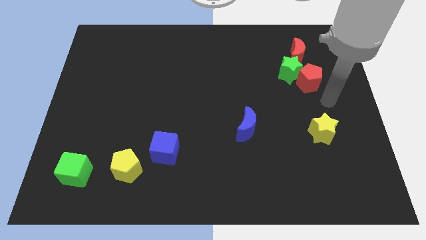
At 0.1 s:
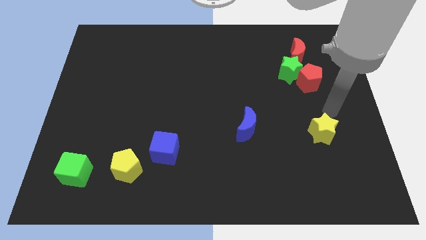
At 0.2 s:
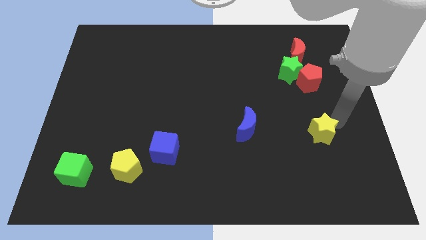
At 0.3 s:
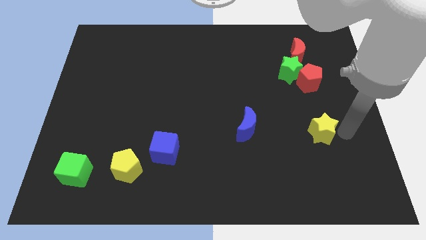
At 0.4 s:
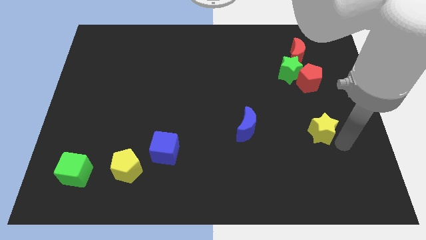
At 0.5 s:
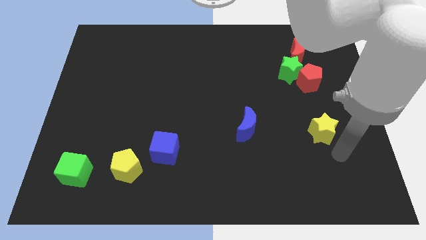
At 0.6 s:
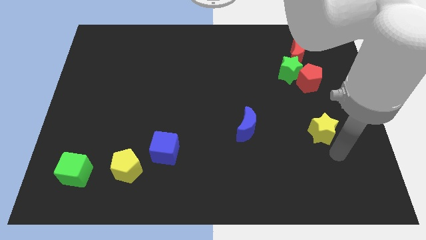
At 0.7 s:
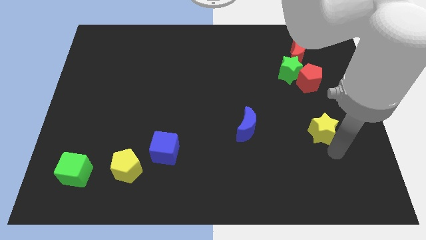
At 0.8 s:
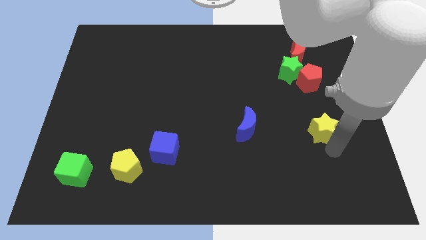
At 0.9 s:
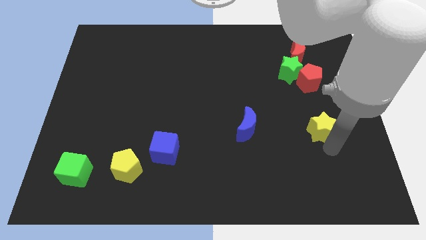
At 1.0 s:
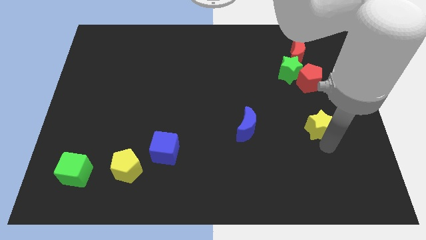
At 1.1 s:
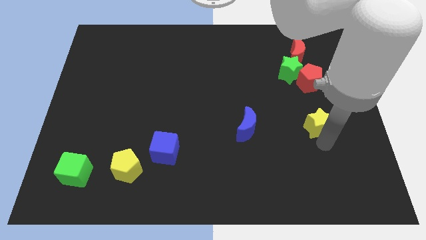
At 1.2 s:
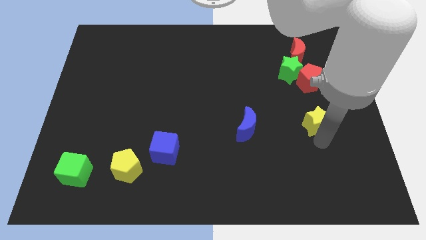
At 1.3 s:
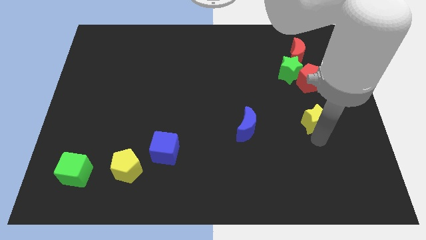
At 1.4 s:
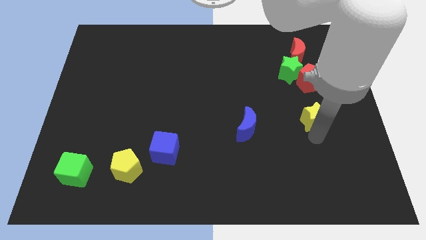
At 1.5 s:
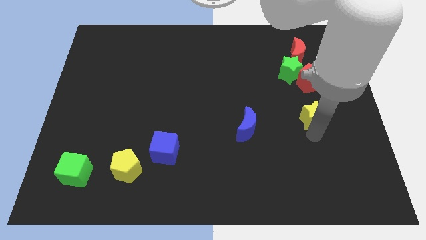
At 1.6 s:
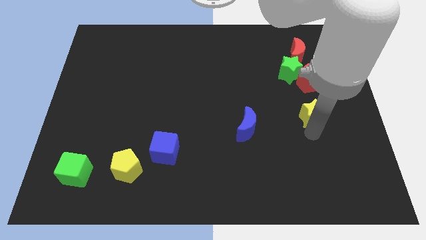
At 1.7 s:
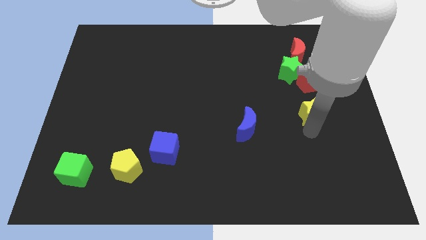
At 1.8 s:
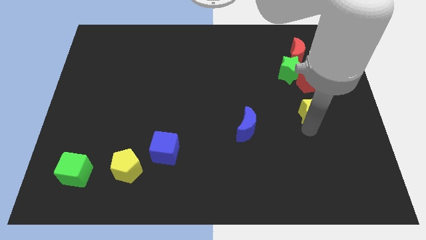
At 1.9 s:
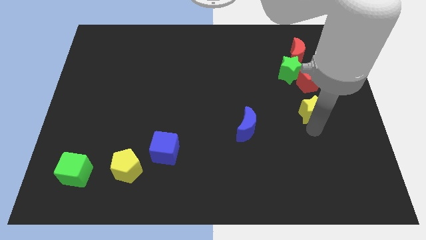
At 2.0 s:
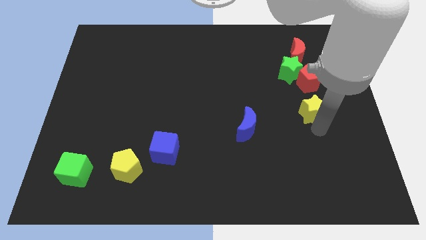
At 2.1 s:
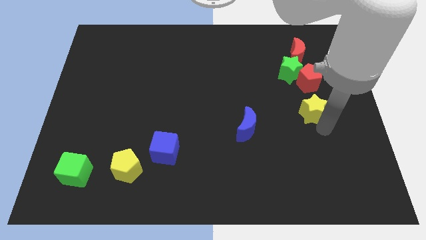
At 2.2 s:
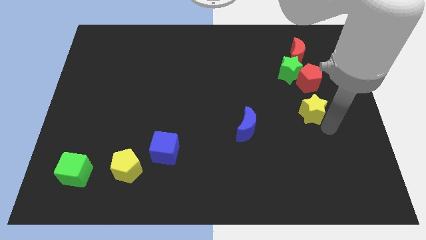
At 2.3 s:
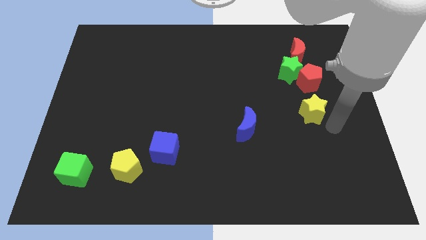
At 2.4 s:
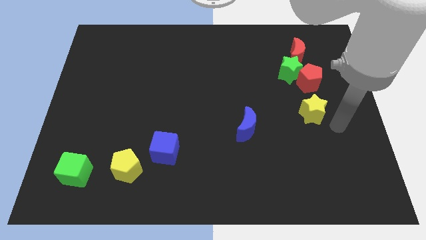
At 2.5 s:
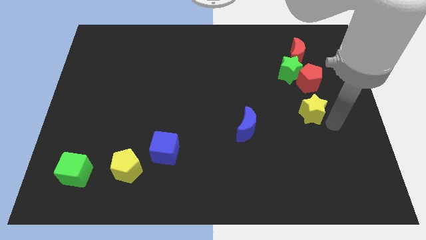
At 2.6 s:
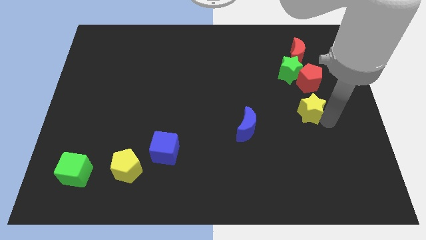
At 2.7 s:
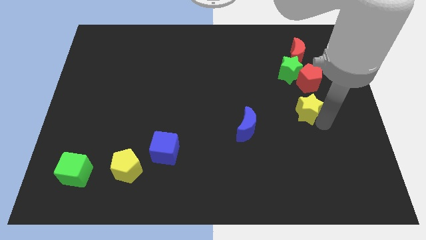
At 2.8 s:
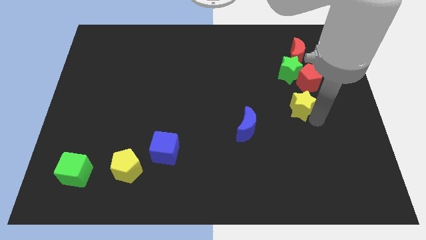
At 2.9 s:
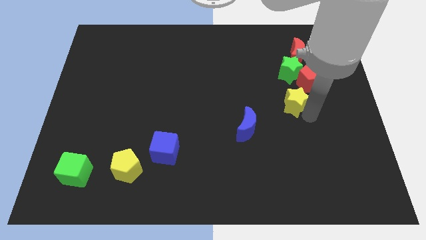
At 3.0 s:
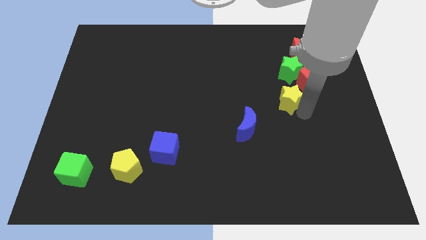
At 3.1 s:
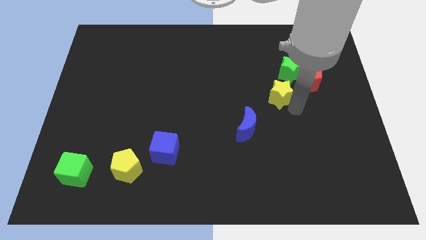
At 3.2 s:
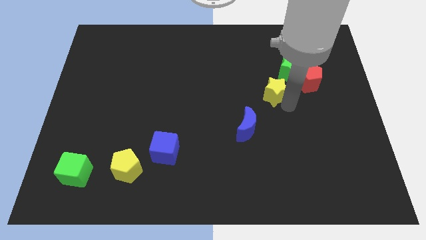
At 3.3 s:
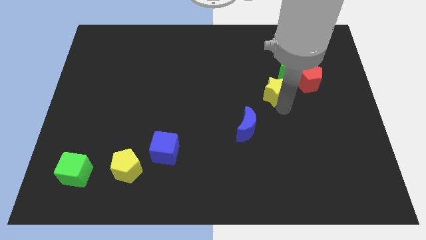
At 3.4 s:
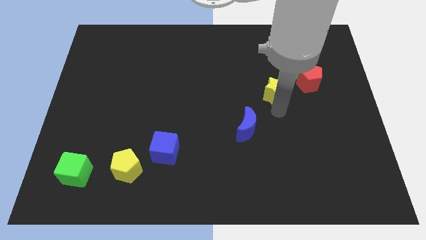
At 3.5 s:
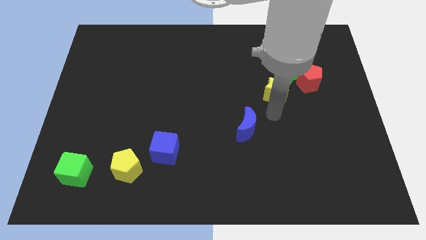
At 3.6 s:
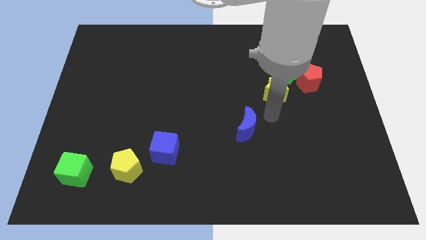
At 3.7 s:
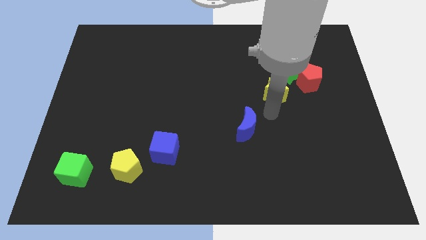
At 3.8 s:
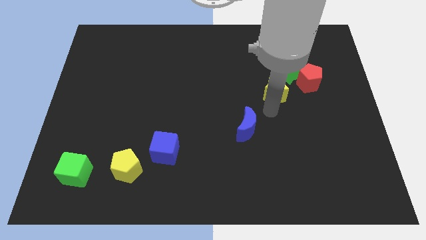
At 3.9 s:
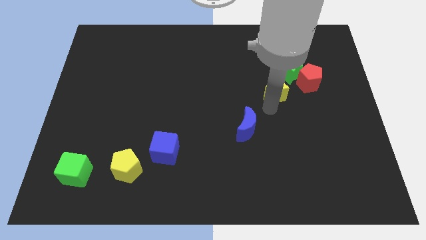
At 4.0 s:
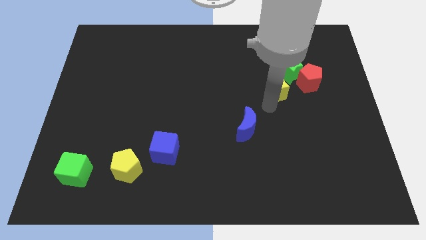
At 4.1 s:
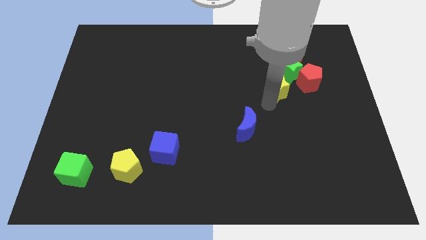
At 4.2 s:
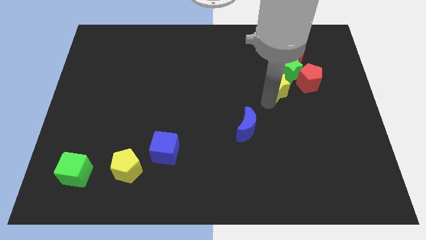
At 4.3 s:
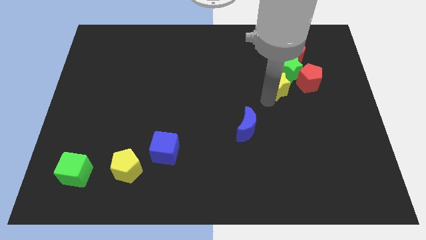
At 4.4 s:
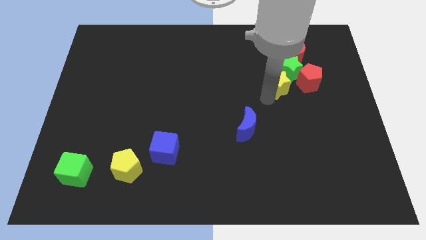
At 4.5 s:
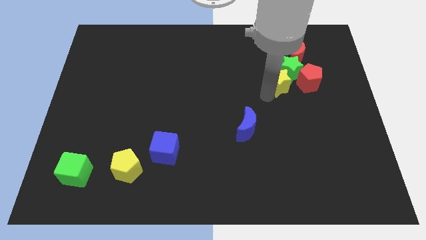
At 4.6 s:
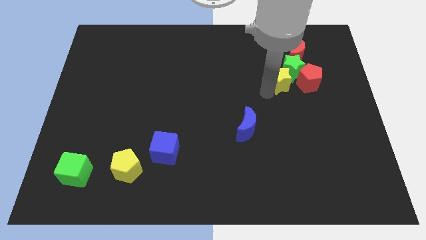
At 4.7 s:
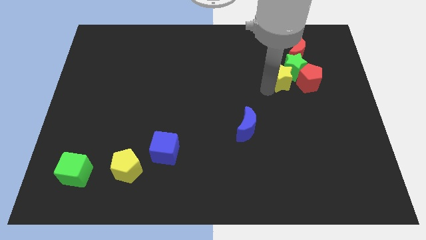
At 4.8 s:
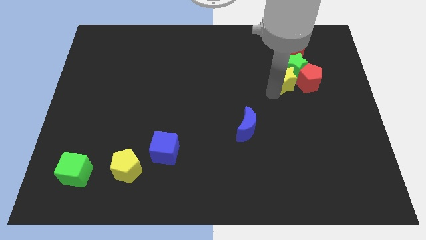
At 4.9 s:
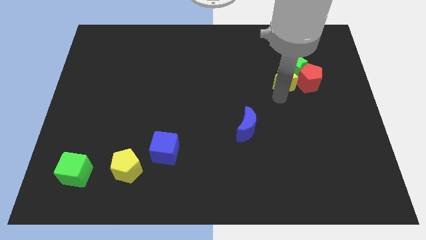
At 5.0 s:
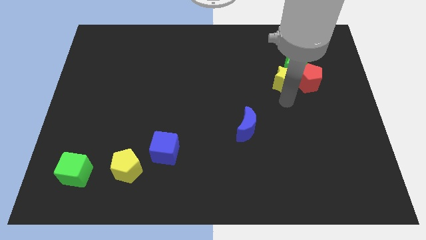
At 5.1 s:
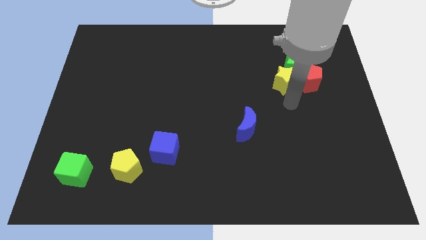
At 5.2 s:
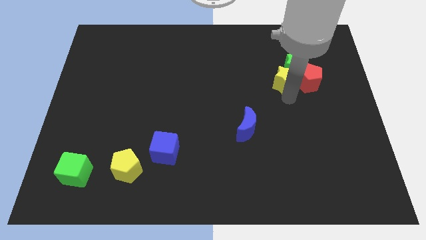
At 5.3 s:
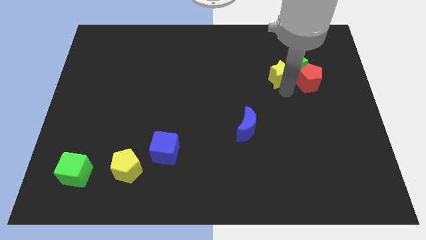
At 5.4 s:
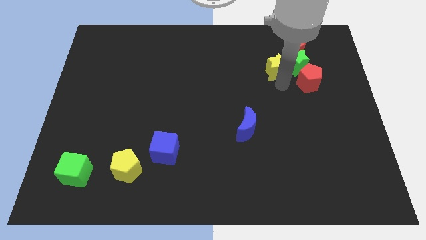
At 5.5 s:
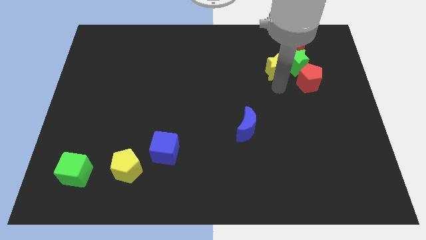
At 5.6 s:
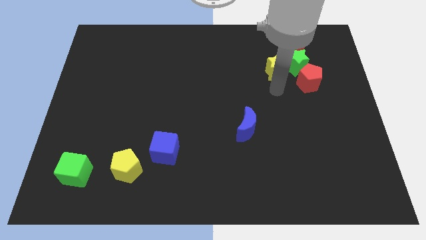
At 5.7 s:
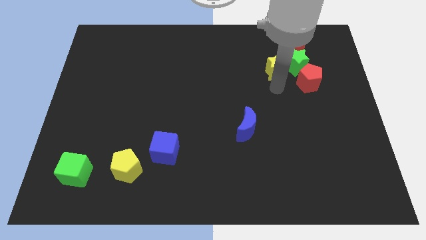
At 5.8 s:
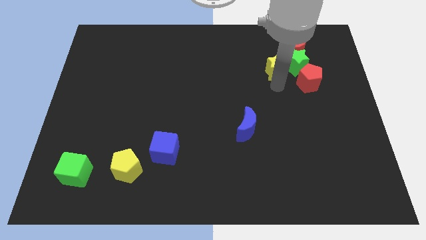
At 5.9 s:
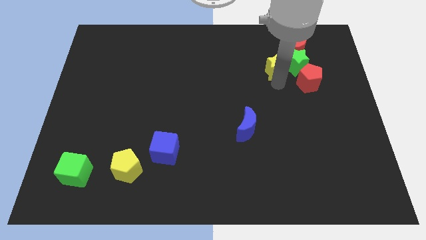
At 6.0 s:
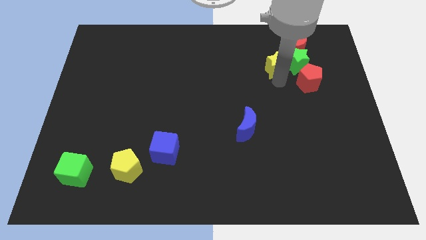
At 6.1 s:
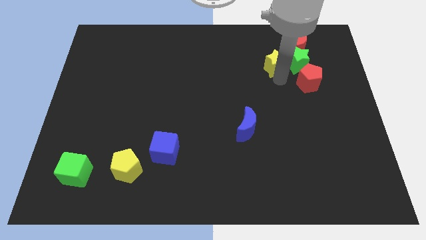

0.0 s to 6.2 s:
move the yellow star to the top left of the green star

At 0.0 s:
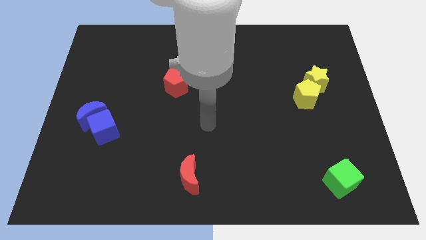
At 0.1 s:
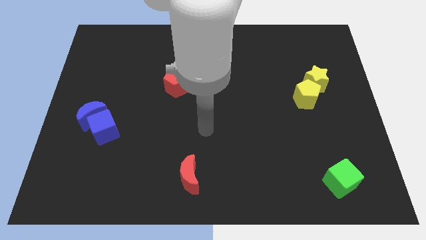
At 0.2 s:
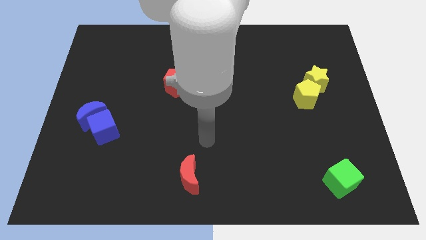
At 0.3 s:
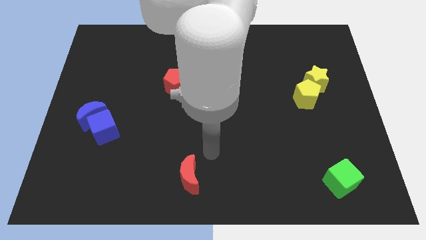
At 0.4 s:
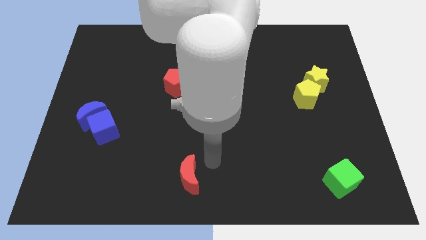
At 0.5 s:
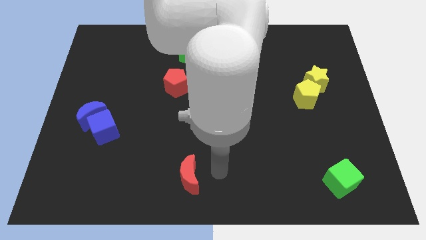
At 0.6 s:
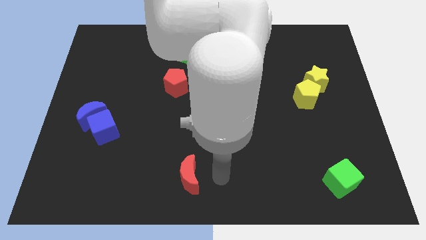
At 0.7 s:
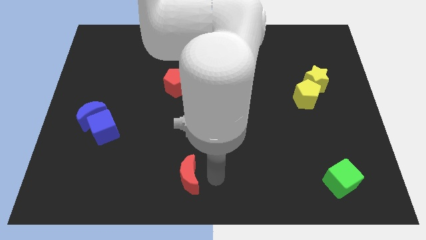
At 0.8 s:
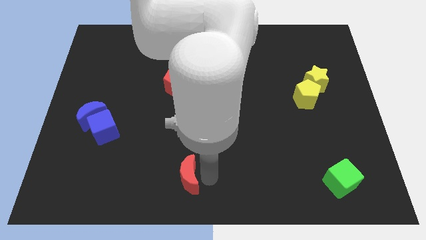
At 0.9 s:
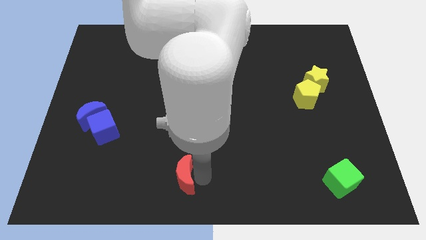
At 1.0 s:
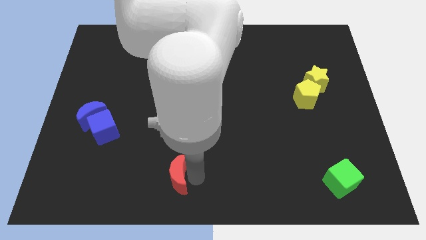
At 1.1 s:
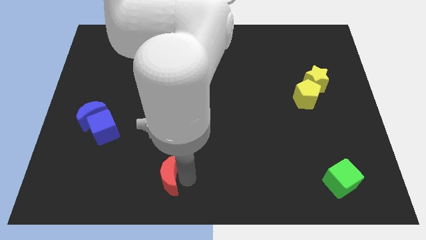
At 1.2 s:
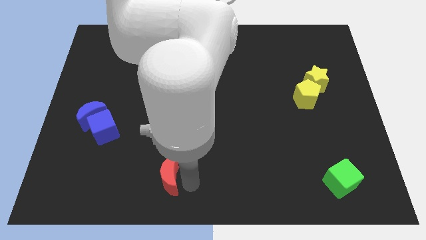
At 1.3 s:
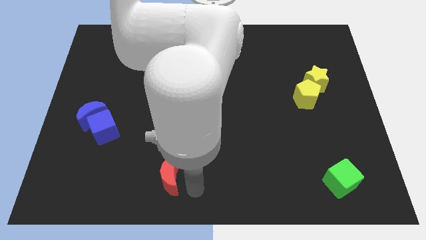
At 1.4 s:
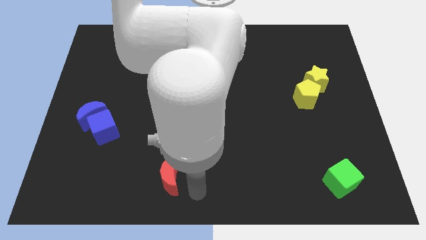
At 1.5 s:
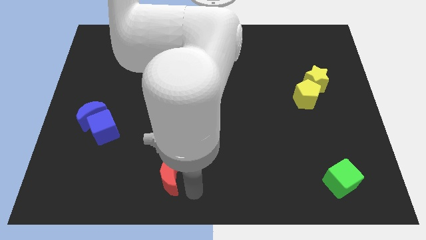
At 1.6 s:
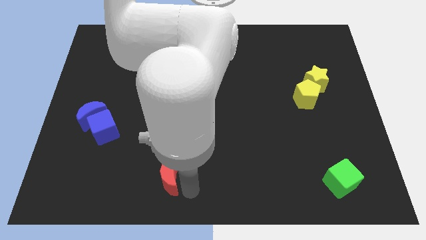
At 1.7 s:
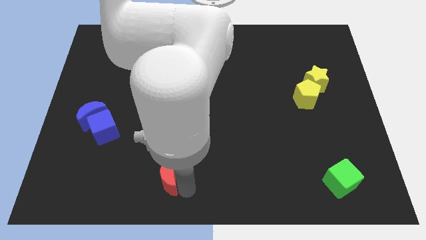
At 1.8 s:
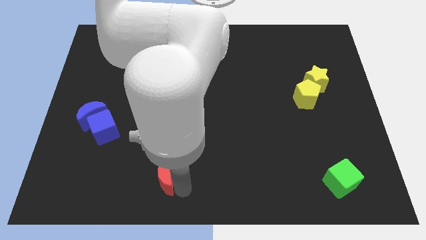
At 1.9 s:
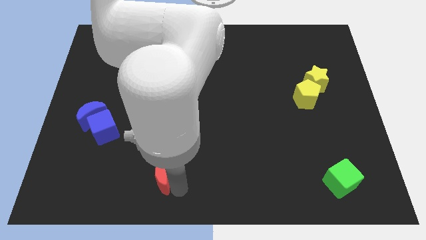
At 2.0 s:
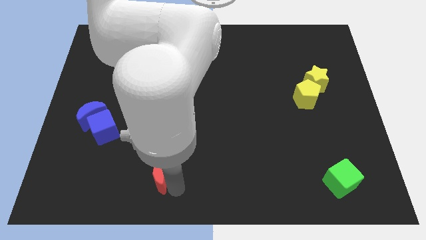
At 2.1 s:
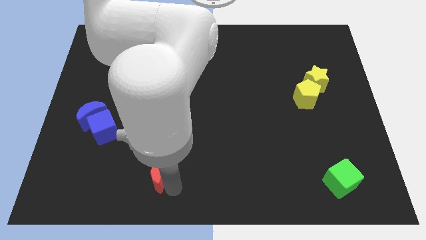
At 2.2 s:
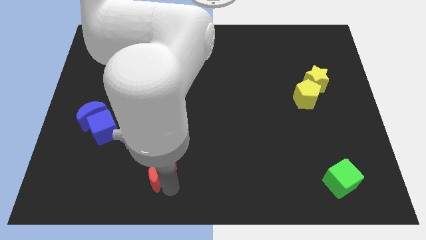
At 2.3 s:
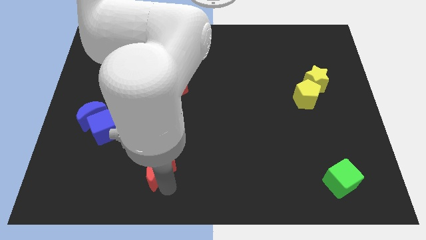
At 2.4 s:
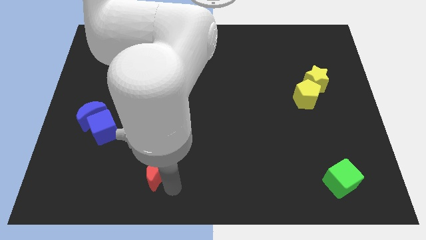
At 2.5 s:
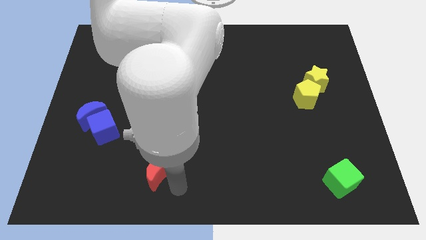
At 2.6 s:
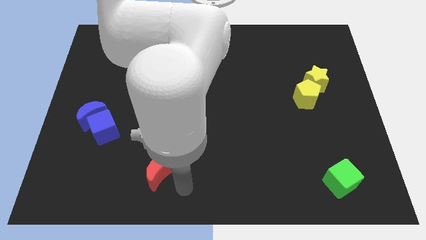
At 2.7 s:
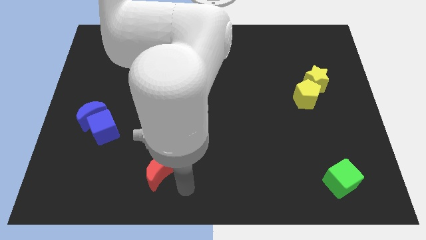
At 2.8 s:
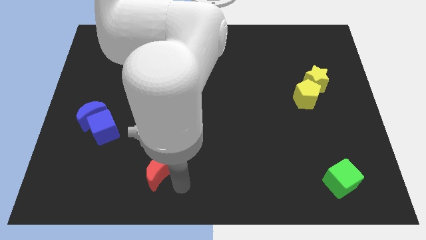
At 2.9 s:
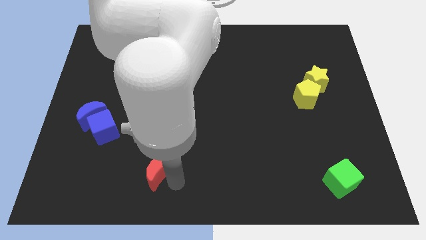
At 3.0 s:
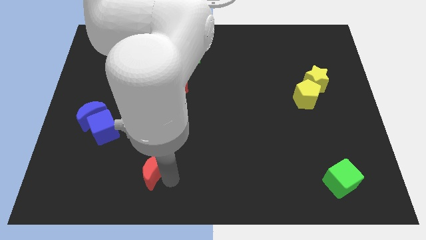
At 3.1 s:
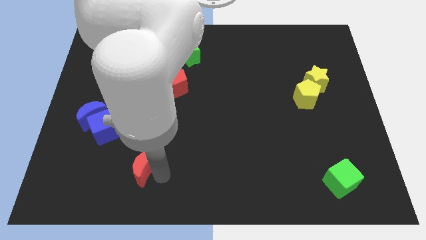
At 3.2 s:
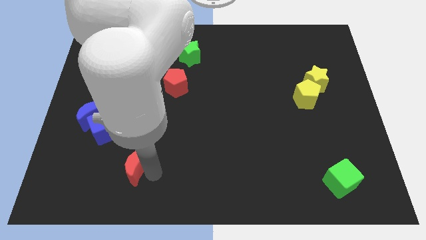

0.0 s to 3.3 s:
put the red moon diagonally down and to the right of the blue cube
